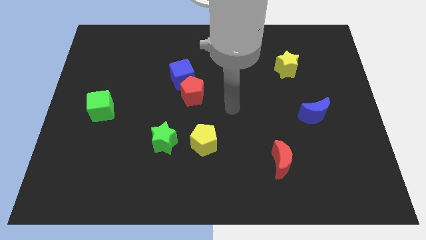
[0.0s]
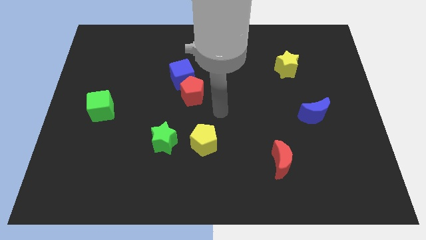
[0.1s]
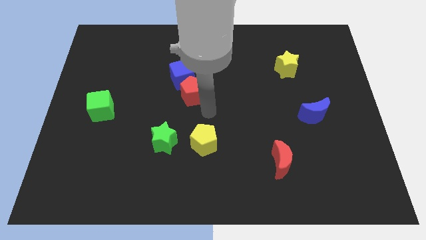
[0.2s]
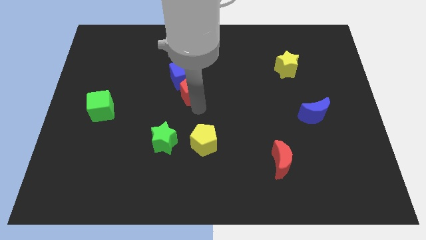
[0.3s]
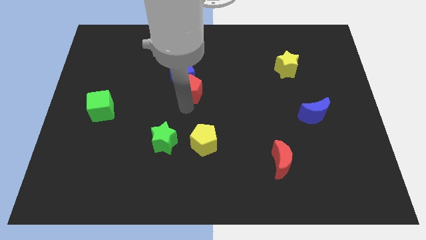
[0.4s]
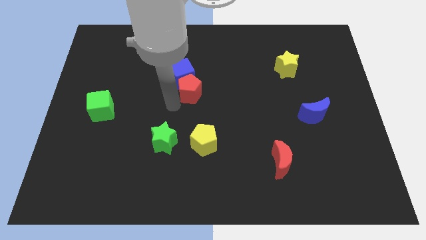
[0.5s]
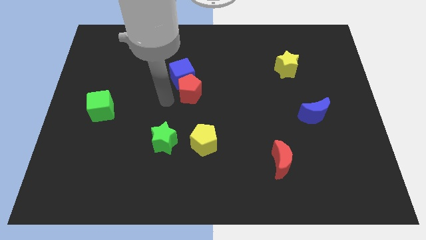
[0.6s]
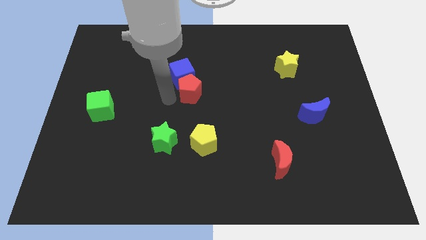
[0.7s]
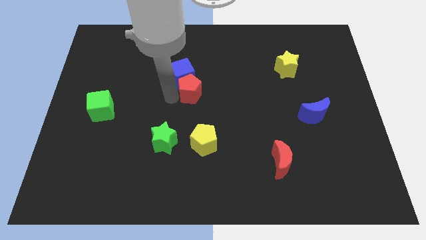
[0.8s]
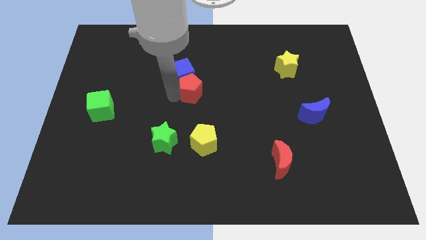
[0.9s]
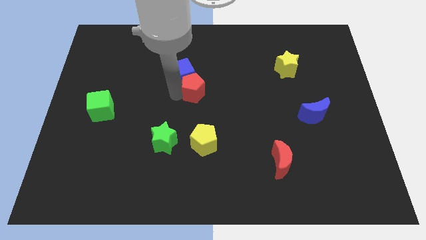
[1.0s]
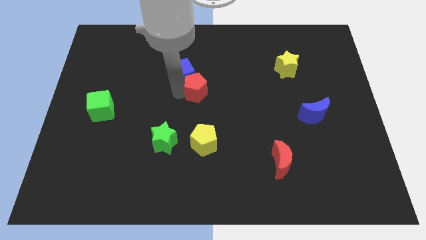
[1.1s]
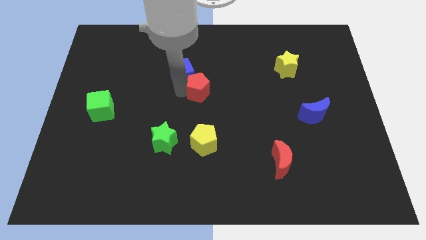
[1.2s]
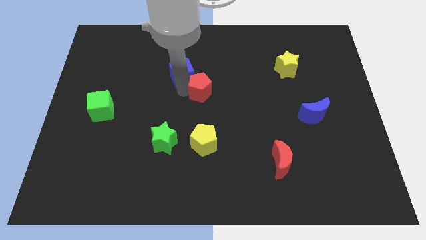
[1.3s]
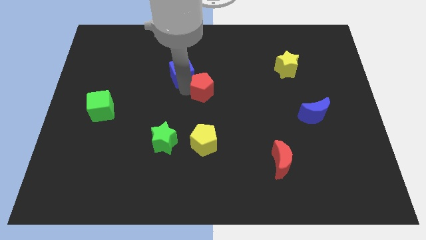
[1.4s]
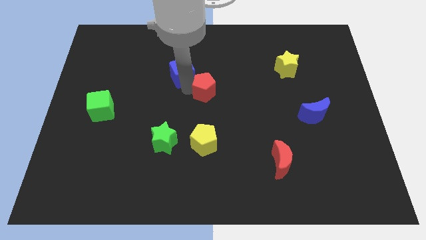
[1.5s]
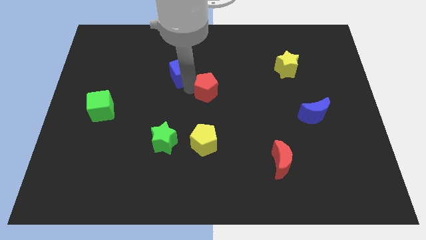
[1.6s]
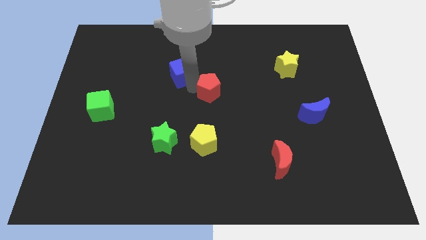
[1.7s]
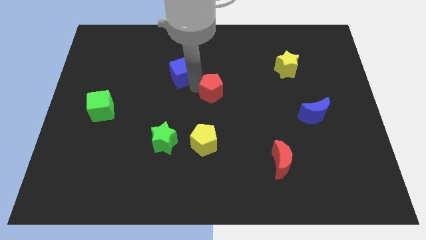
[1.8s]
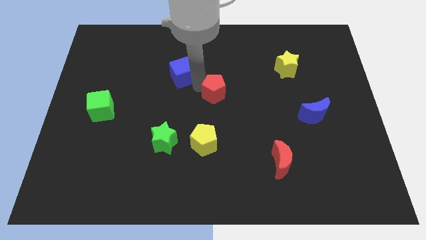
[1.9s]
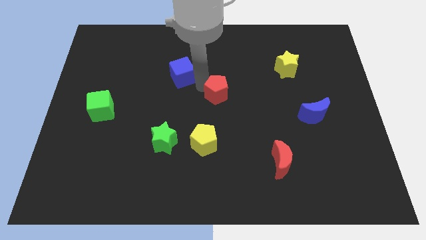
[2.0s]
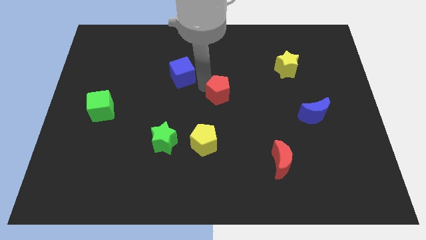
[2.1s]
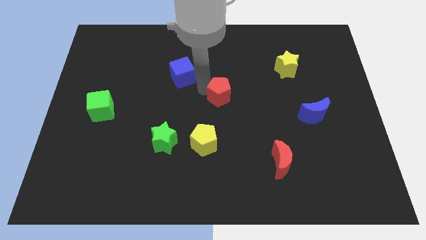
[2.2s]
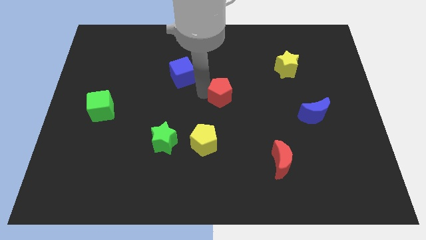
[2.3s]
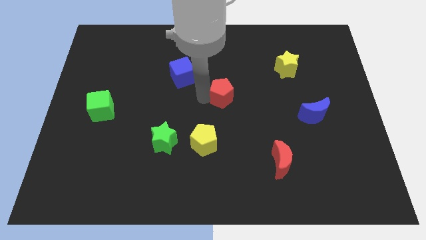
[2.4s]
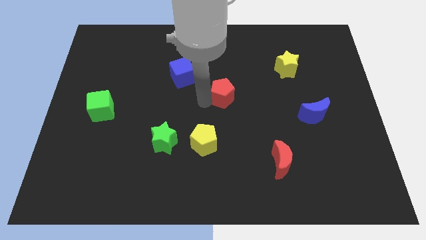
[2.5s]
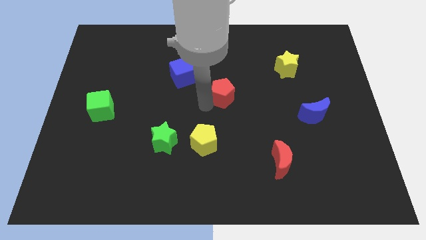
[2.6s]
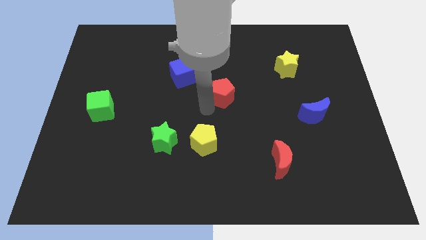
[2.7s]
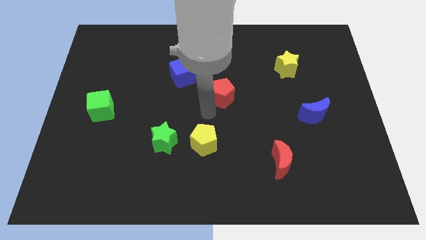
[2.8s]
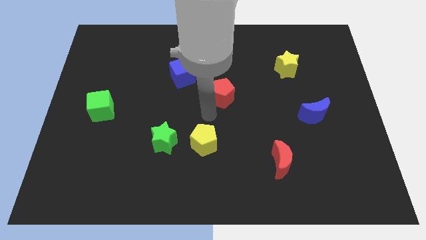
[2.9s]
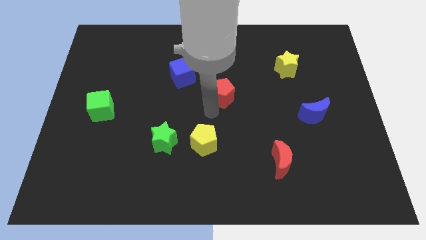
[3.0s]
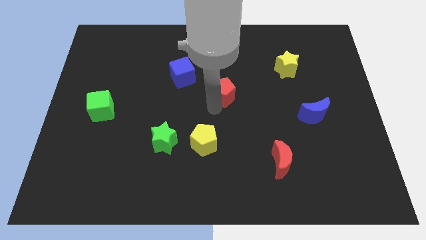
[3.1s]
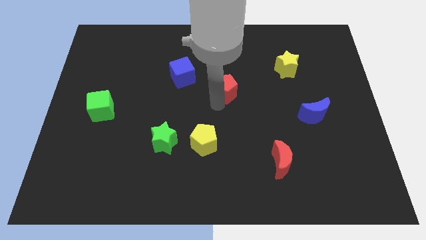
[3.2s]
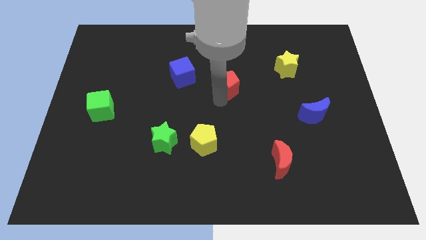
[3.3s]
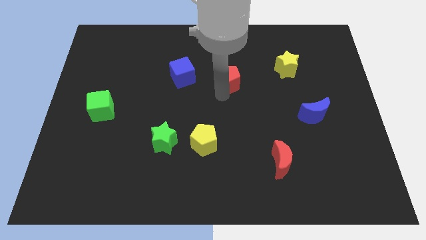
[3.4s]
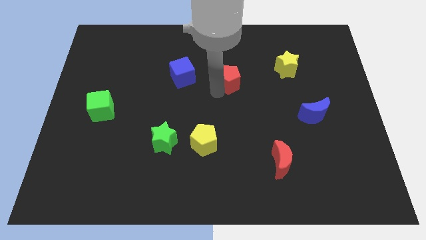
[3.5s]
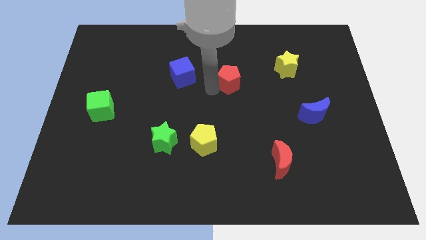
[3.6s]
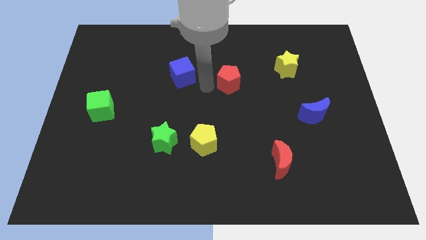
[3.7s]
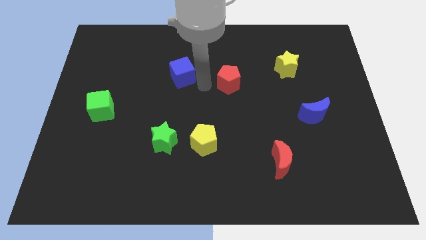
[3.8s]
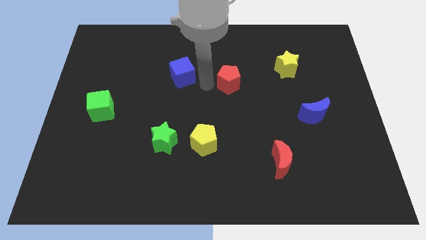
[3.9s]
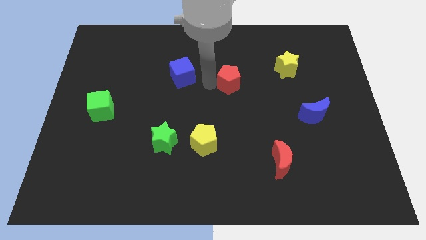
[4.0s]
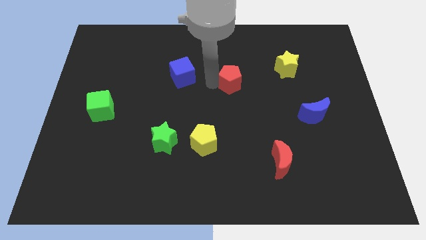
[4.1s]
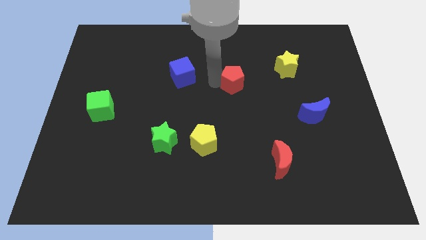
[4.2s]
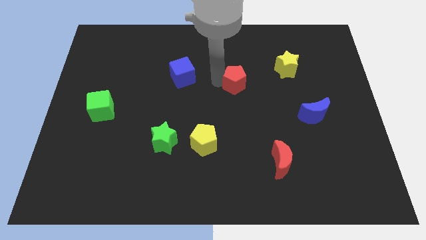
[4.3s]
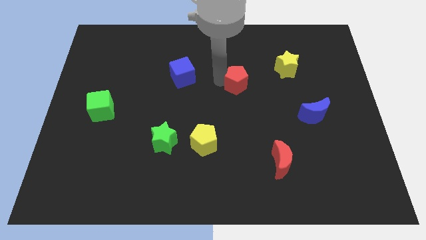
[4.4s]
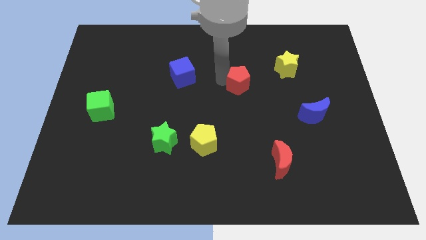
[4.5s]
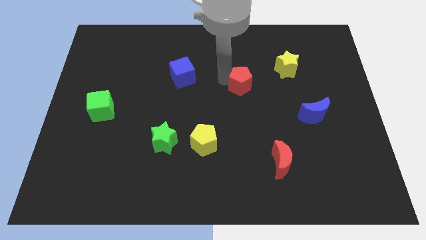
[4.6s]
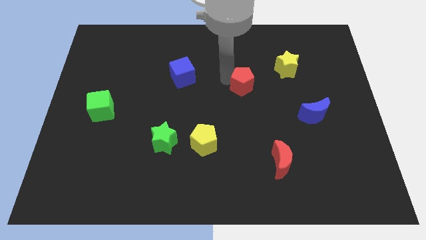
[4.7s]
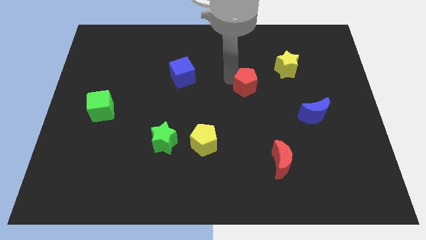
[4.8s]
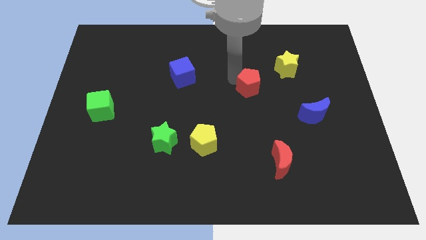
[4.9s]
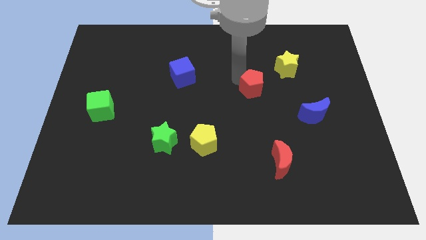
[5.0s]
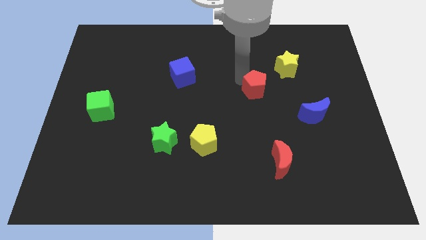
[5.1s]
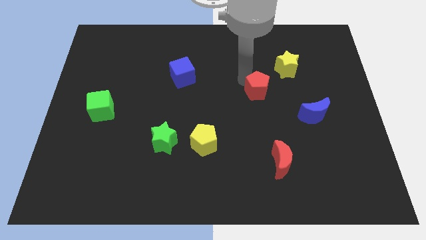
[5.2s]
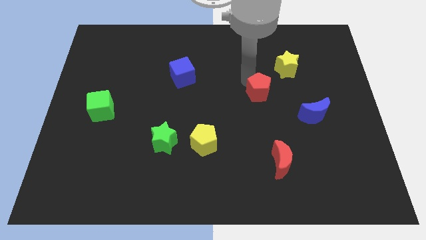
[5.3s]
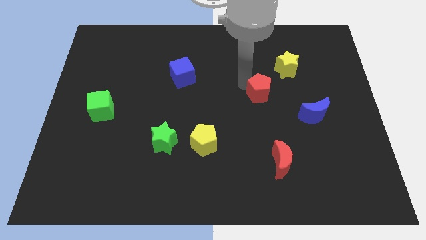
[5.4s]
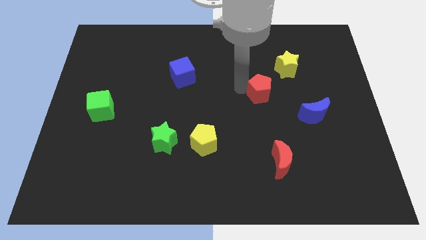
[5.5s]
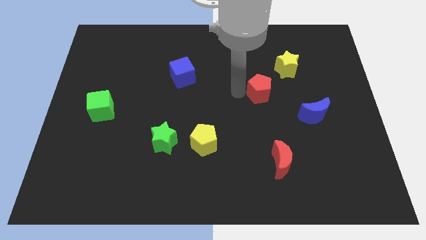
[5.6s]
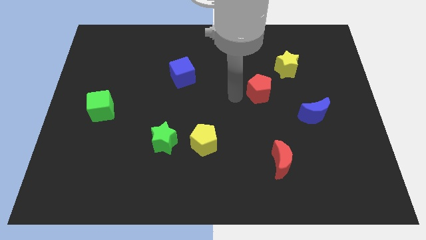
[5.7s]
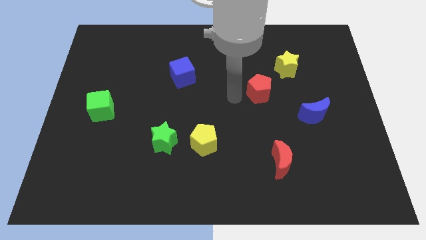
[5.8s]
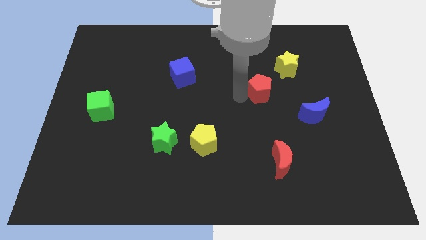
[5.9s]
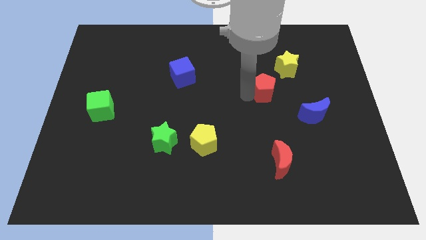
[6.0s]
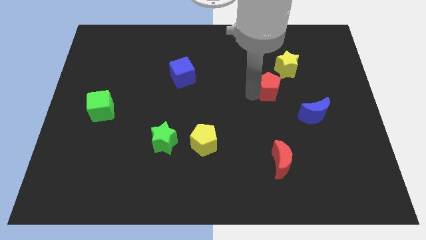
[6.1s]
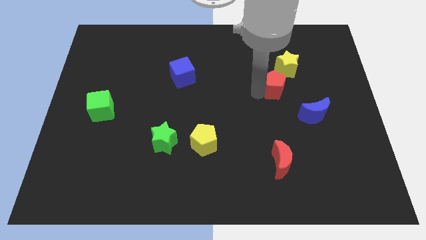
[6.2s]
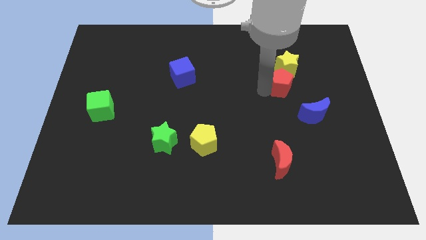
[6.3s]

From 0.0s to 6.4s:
slide the red pentagon right

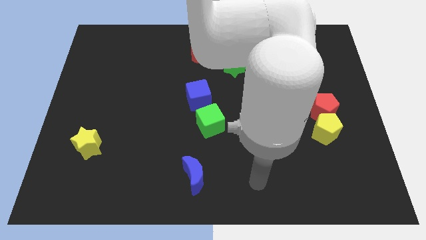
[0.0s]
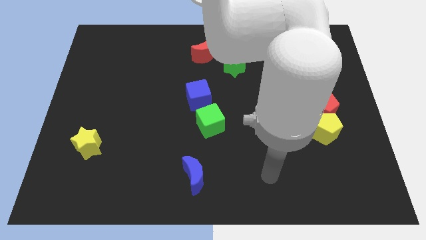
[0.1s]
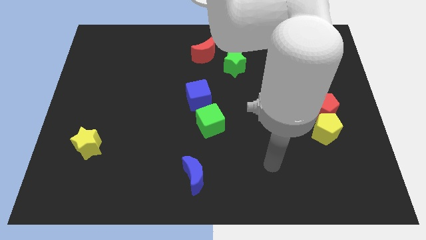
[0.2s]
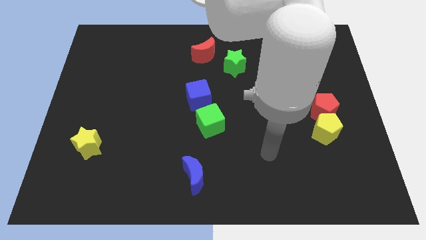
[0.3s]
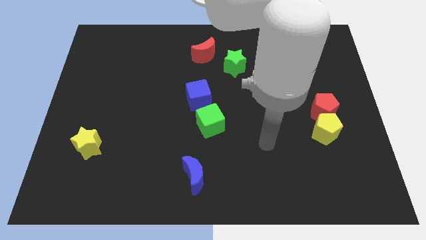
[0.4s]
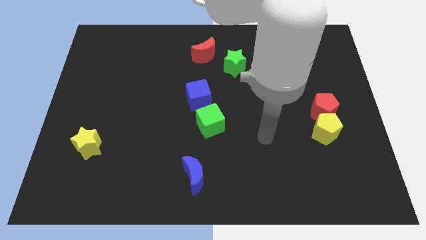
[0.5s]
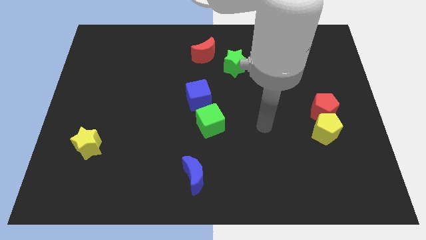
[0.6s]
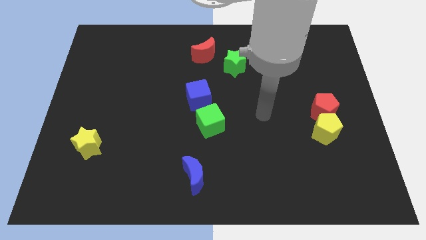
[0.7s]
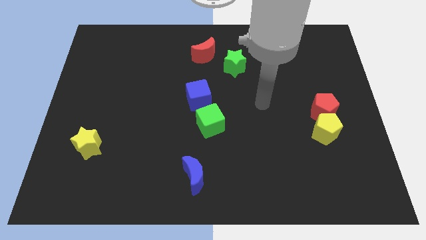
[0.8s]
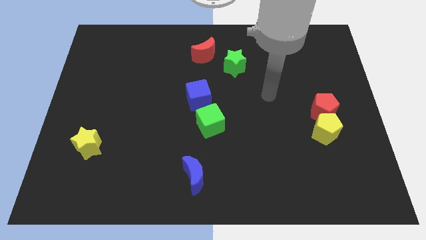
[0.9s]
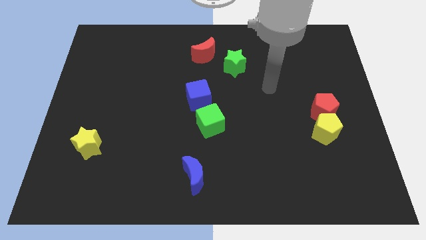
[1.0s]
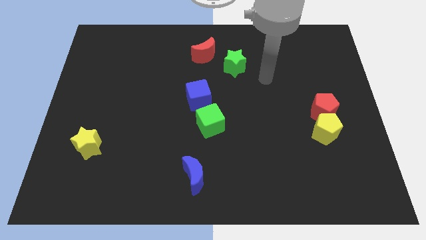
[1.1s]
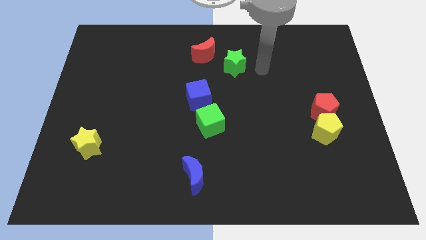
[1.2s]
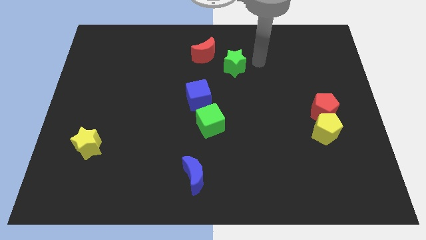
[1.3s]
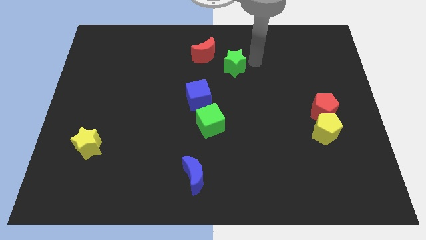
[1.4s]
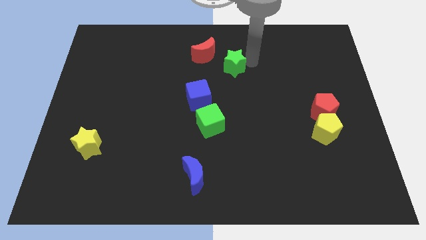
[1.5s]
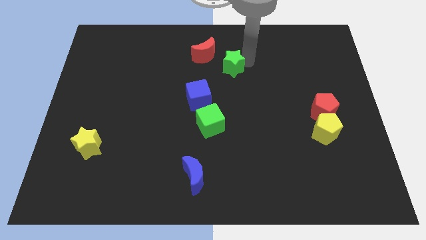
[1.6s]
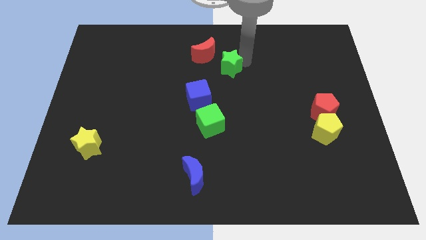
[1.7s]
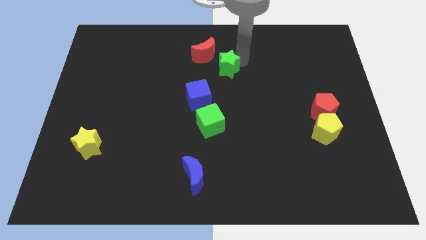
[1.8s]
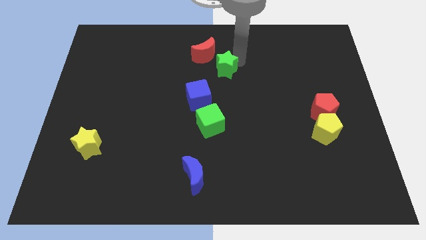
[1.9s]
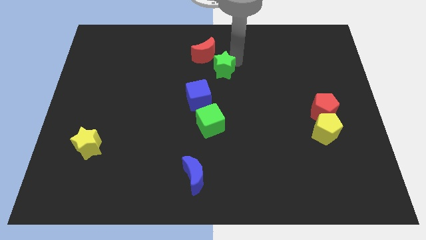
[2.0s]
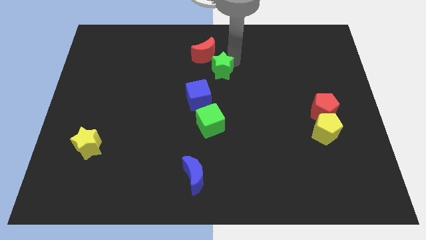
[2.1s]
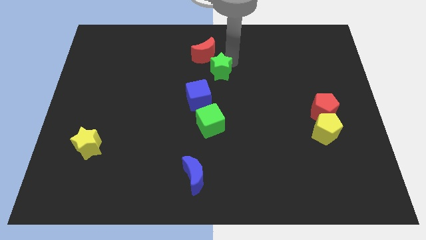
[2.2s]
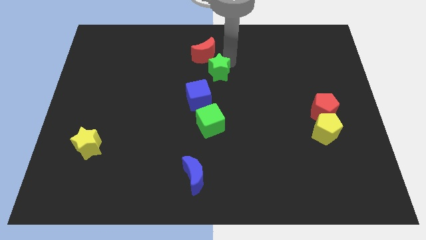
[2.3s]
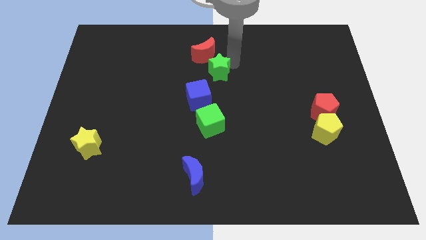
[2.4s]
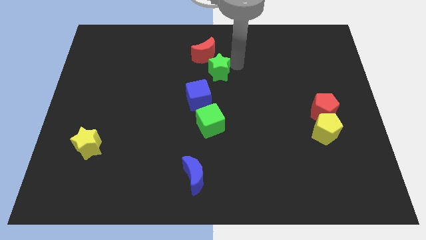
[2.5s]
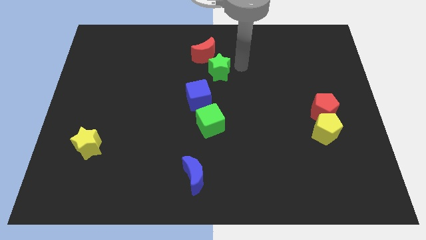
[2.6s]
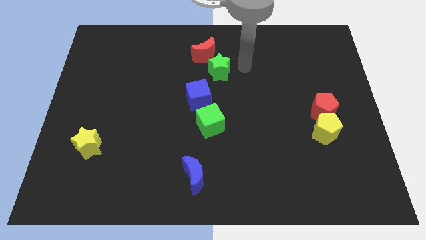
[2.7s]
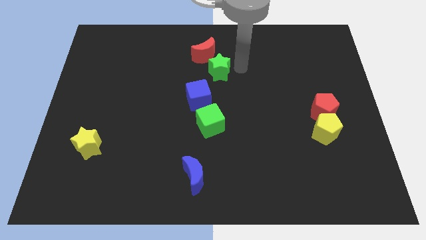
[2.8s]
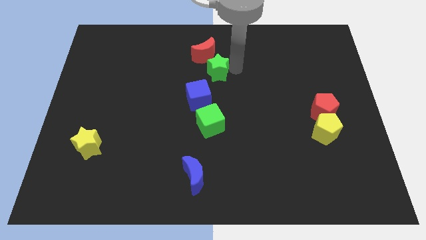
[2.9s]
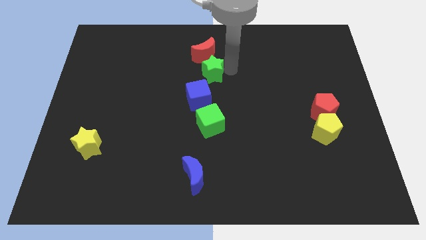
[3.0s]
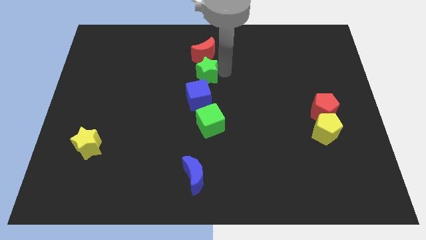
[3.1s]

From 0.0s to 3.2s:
push the green star slightly left
